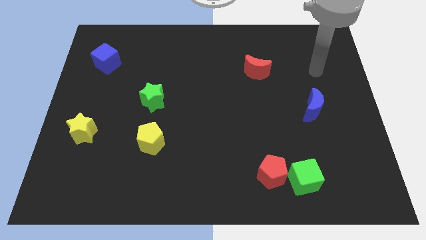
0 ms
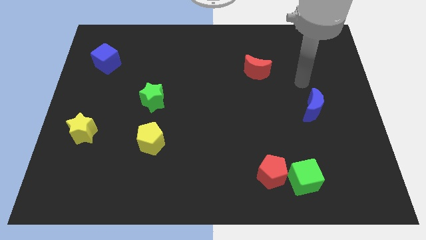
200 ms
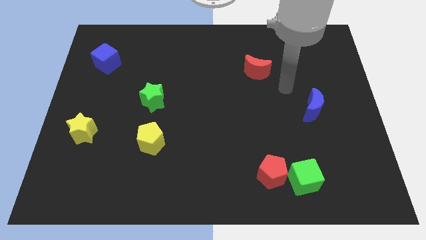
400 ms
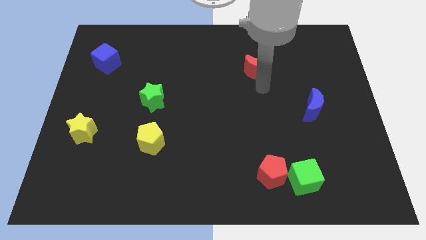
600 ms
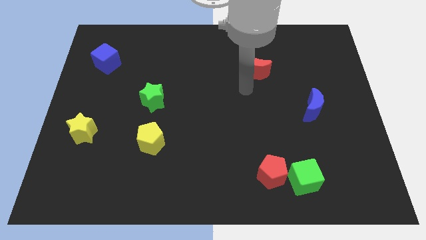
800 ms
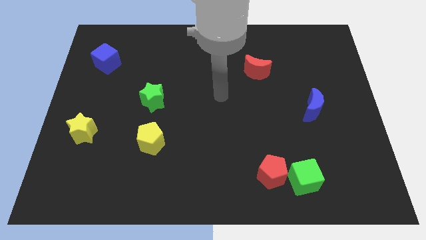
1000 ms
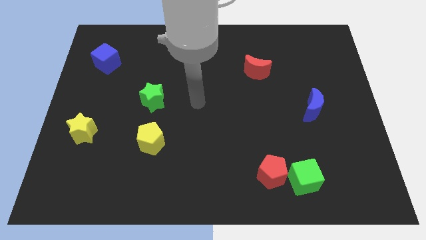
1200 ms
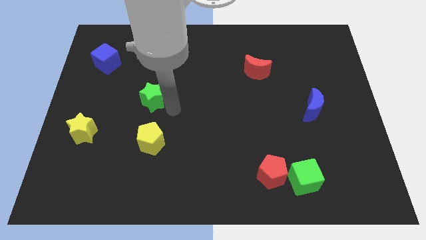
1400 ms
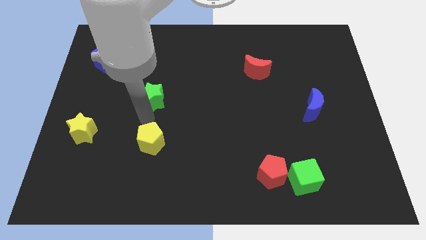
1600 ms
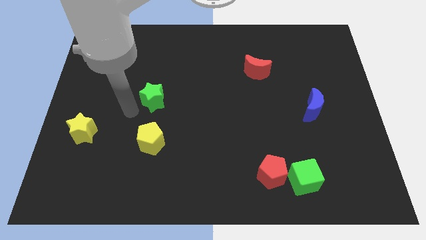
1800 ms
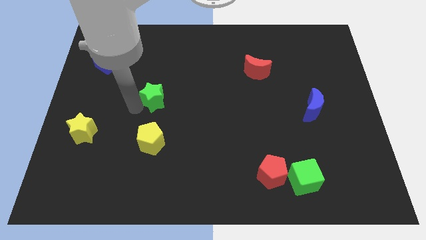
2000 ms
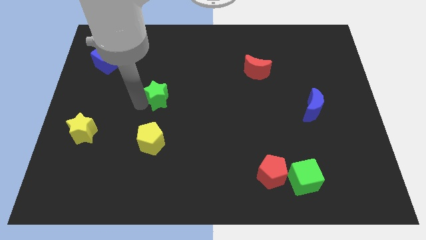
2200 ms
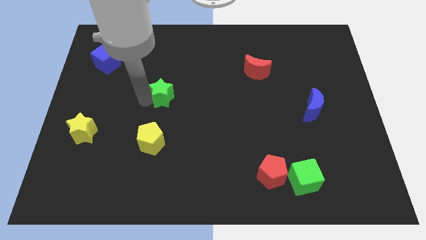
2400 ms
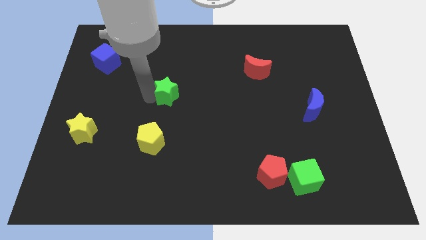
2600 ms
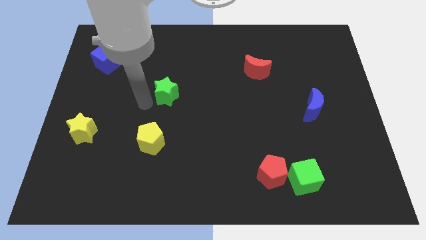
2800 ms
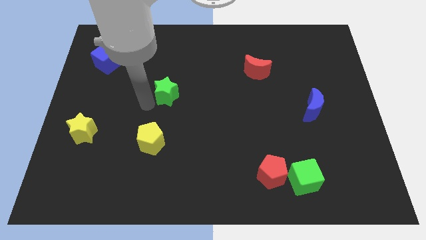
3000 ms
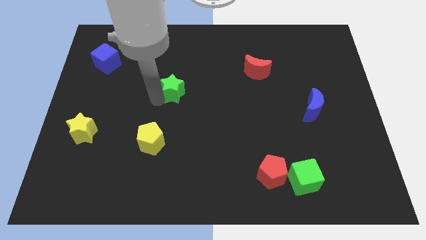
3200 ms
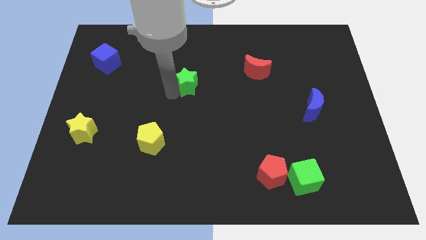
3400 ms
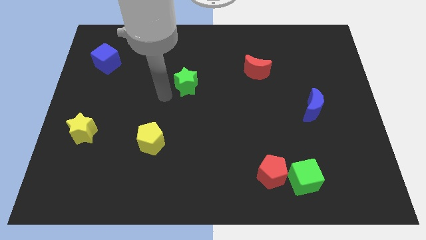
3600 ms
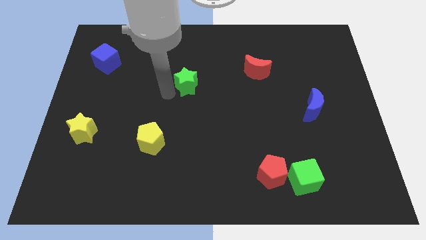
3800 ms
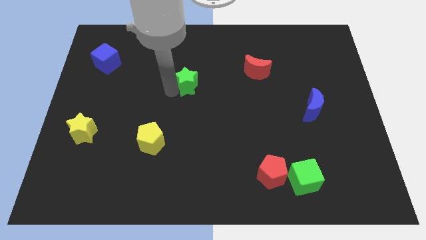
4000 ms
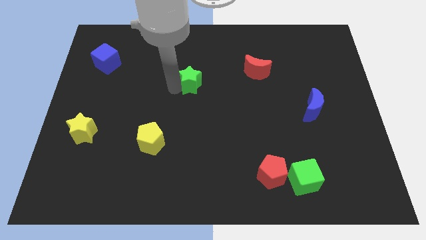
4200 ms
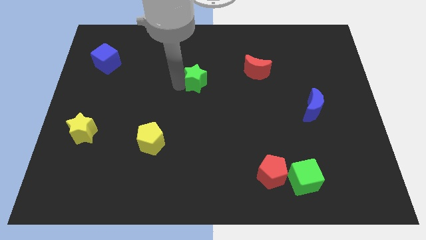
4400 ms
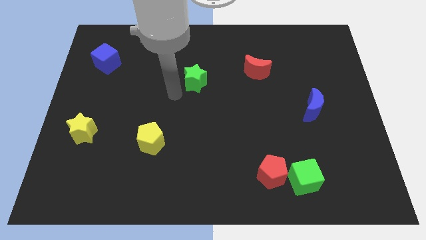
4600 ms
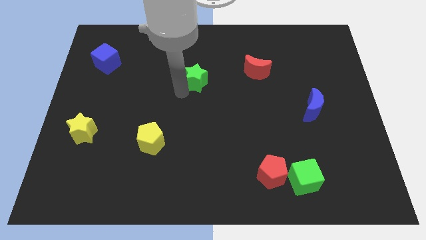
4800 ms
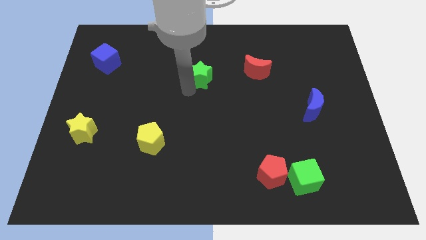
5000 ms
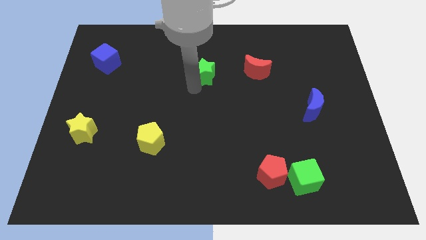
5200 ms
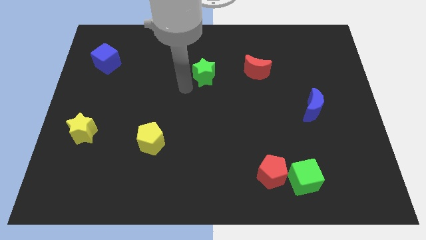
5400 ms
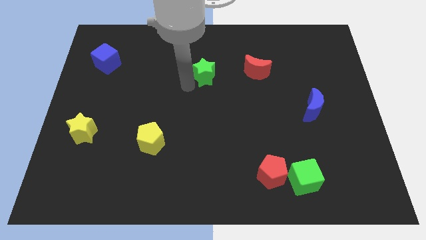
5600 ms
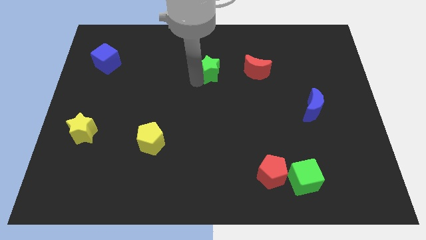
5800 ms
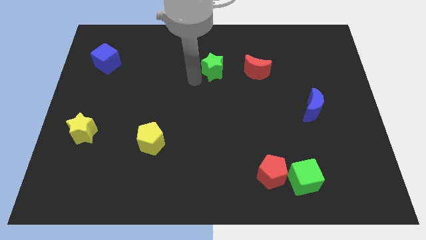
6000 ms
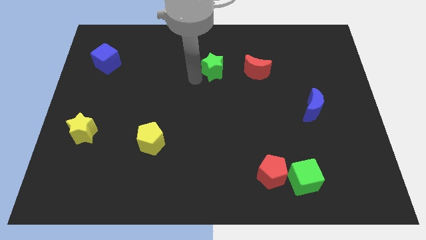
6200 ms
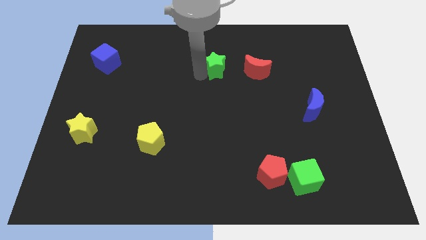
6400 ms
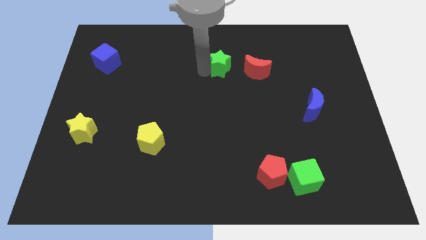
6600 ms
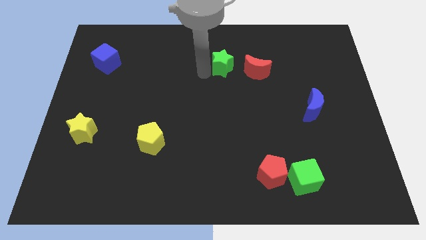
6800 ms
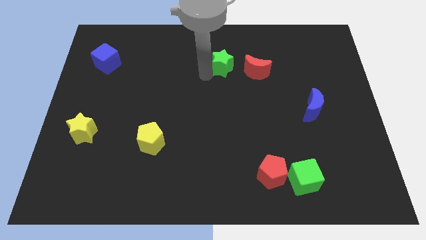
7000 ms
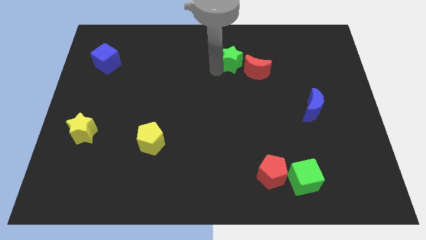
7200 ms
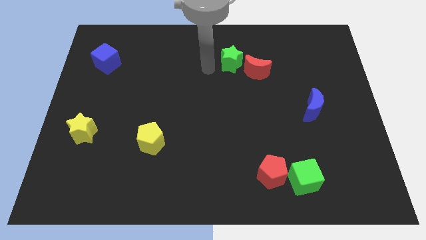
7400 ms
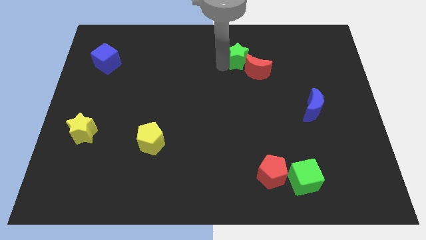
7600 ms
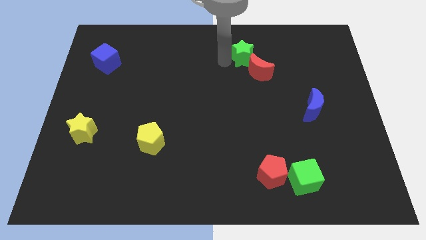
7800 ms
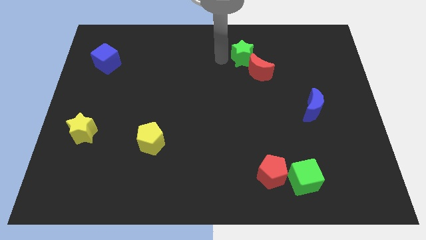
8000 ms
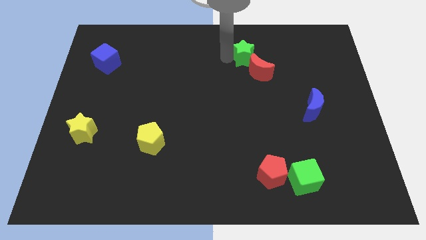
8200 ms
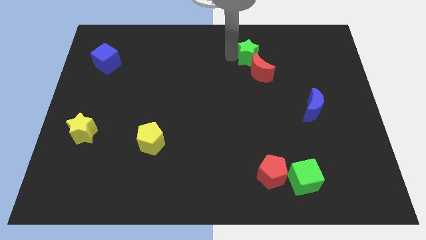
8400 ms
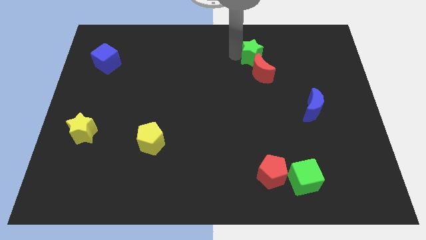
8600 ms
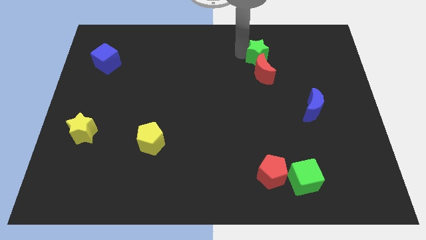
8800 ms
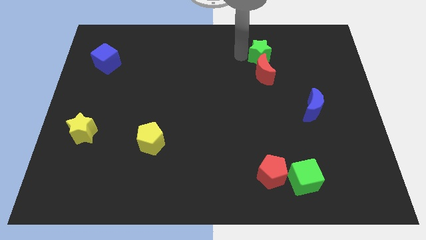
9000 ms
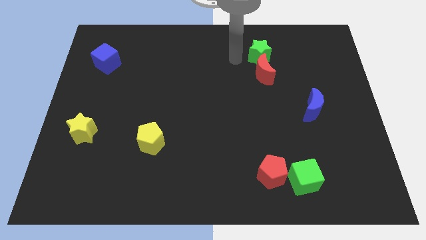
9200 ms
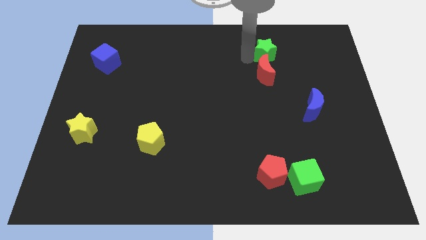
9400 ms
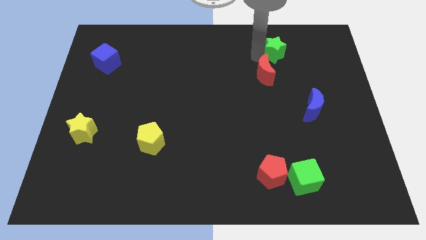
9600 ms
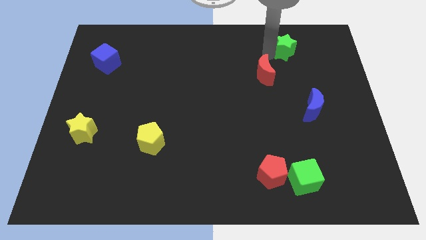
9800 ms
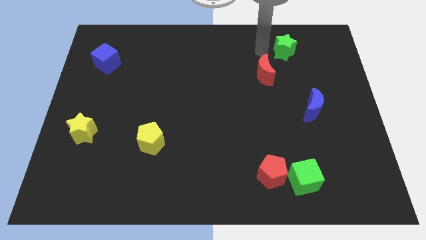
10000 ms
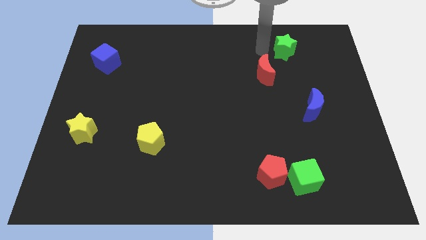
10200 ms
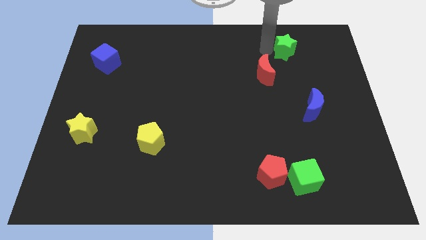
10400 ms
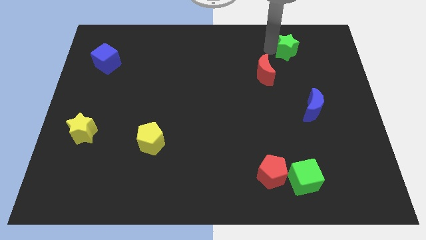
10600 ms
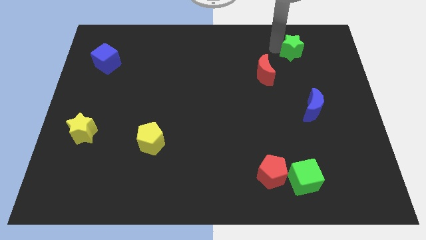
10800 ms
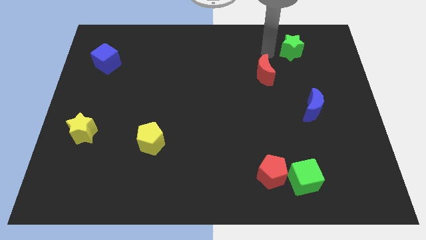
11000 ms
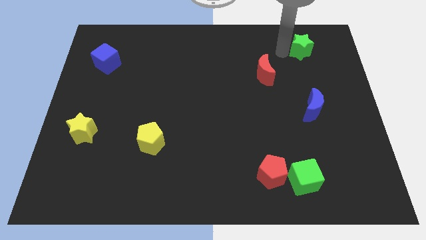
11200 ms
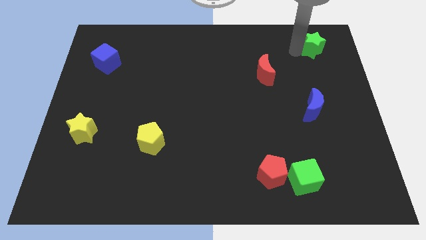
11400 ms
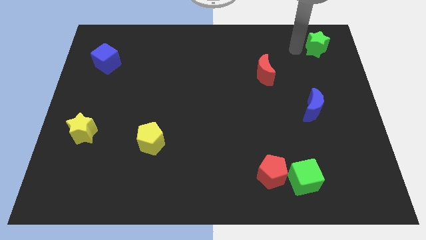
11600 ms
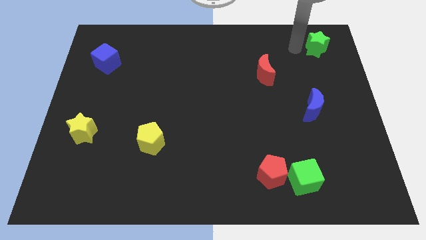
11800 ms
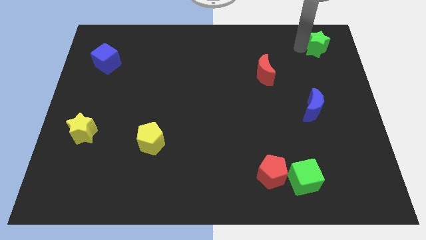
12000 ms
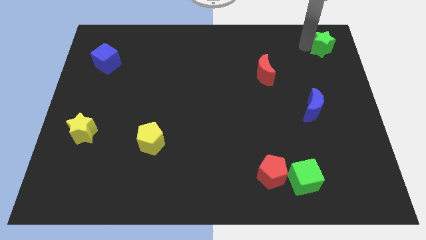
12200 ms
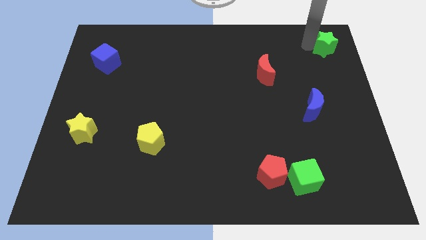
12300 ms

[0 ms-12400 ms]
slide the green star to the top right
